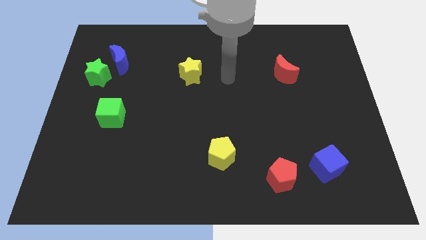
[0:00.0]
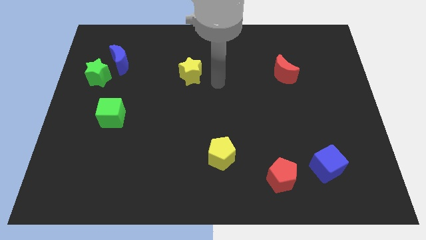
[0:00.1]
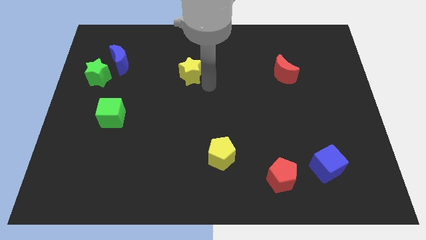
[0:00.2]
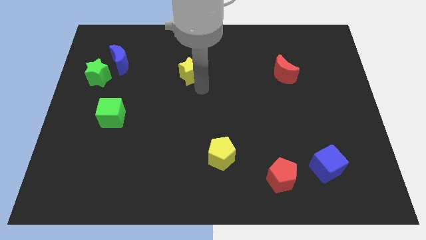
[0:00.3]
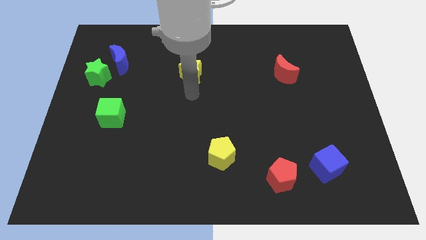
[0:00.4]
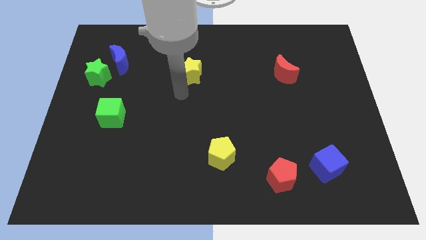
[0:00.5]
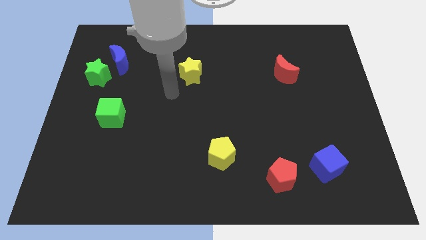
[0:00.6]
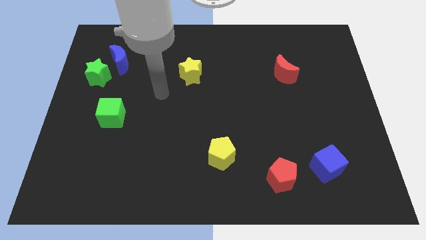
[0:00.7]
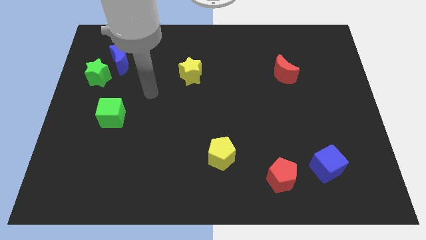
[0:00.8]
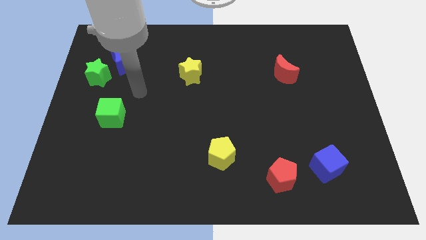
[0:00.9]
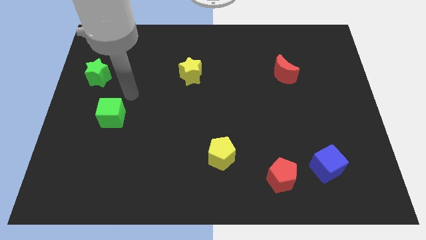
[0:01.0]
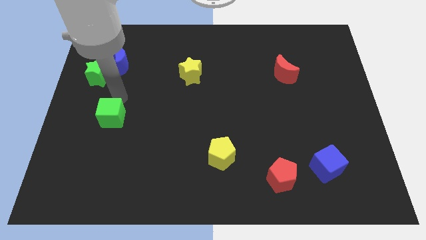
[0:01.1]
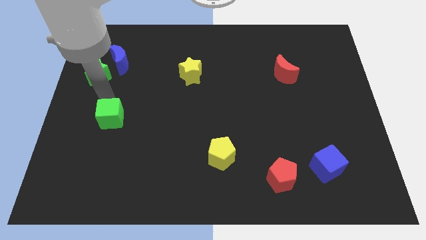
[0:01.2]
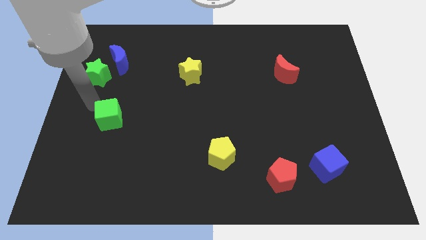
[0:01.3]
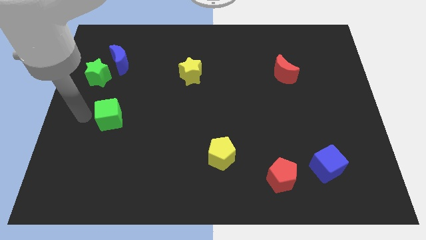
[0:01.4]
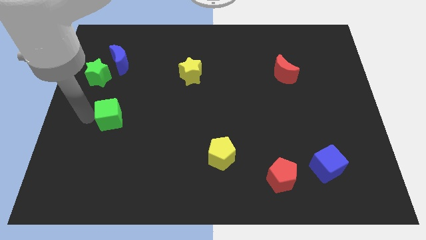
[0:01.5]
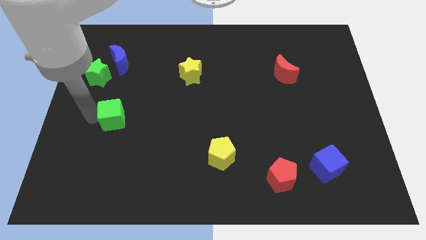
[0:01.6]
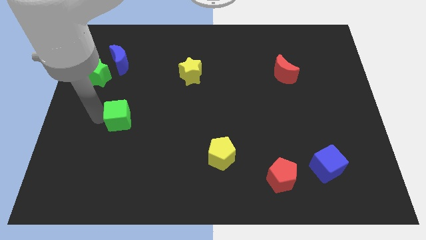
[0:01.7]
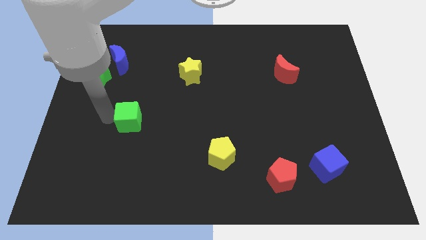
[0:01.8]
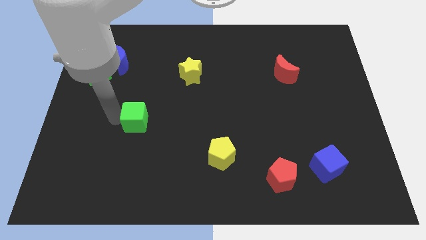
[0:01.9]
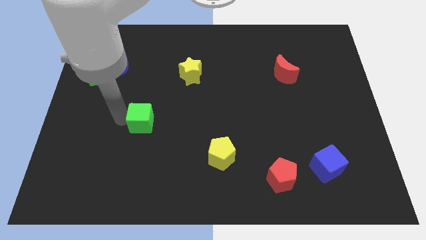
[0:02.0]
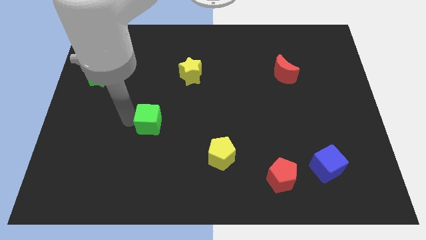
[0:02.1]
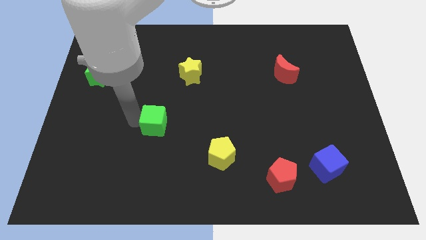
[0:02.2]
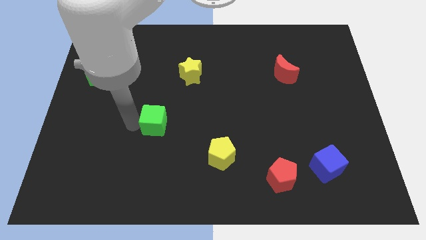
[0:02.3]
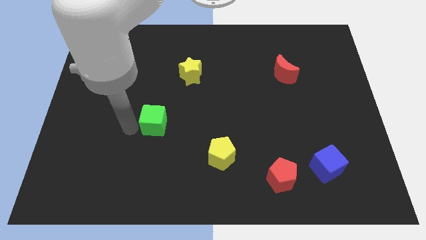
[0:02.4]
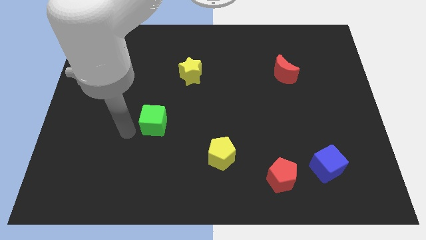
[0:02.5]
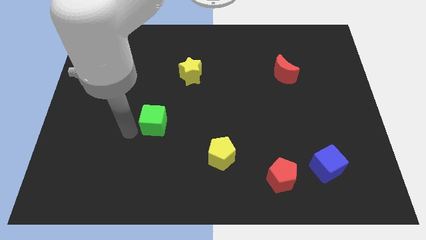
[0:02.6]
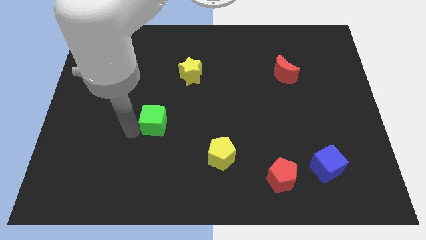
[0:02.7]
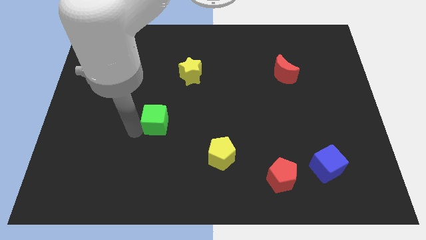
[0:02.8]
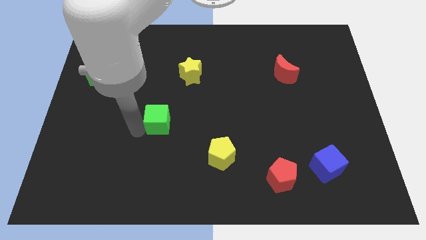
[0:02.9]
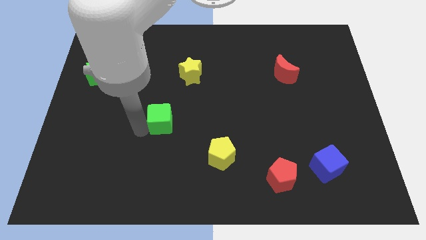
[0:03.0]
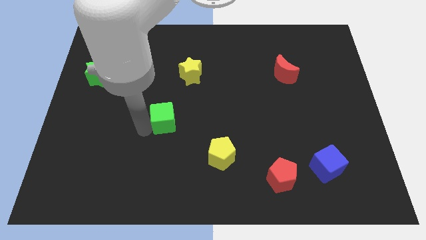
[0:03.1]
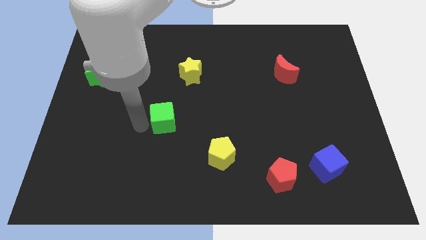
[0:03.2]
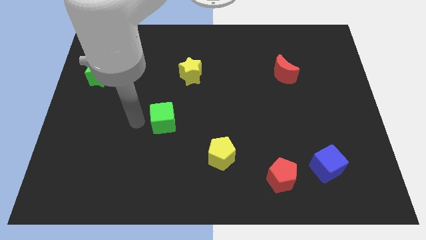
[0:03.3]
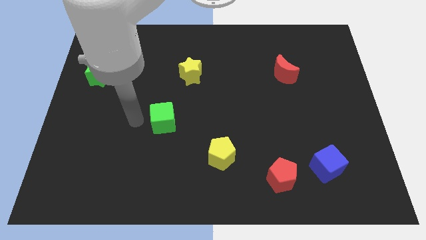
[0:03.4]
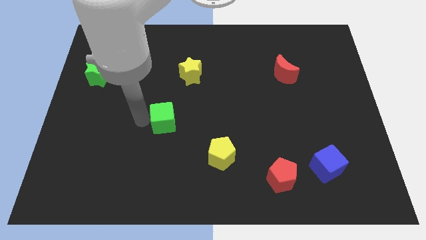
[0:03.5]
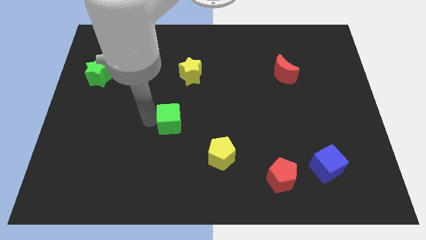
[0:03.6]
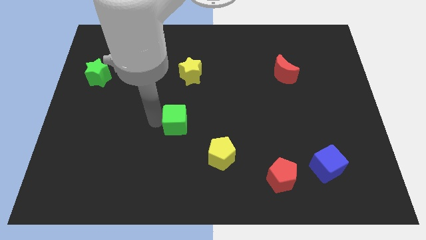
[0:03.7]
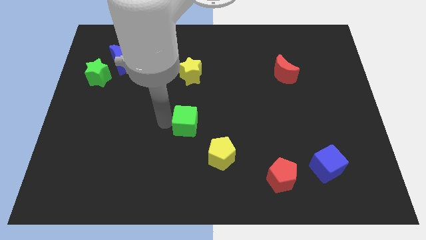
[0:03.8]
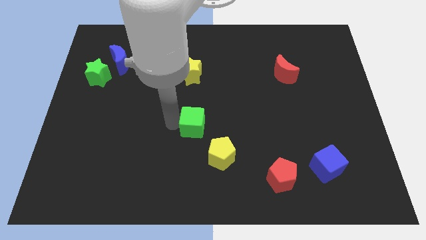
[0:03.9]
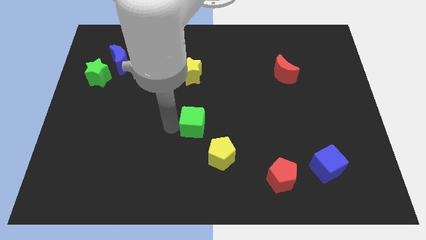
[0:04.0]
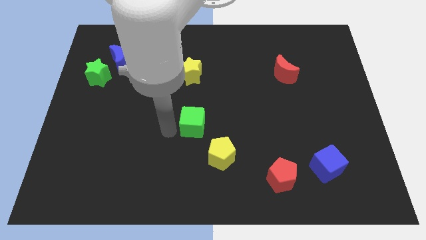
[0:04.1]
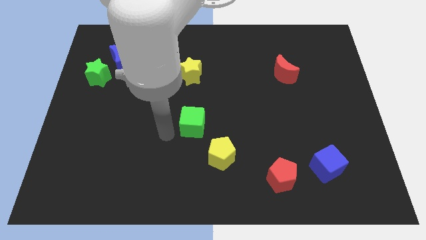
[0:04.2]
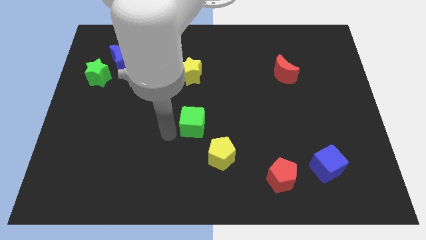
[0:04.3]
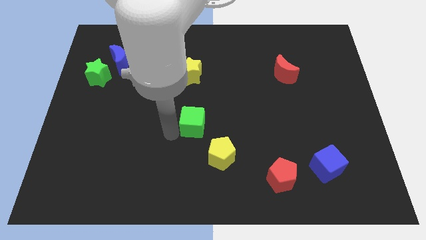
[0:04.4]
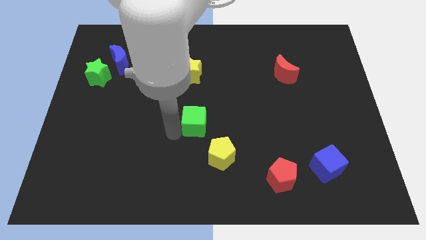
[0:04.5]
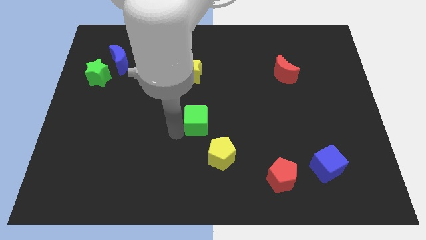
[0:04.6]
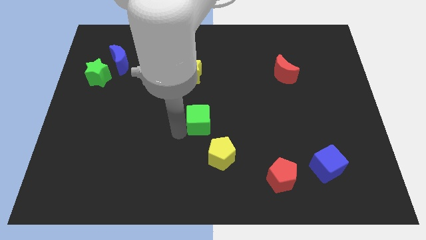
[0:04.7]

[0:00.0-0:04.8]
move the green cube right

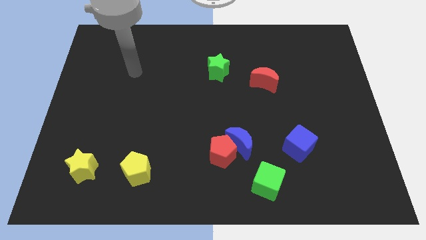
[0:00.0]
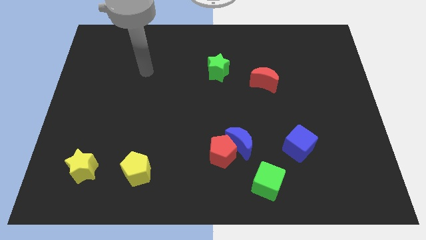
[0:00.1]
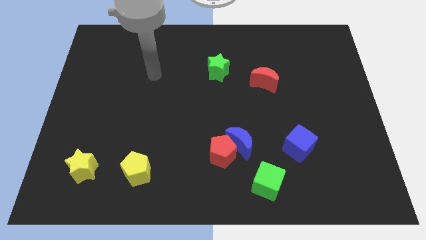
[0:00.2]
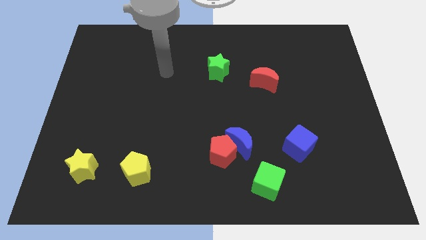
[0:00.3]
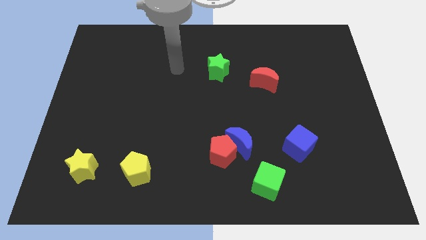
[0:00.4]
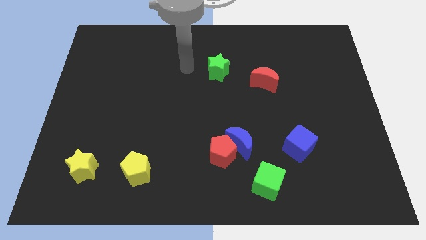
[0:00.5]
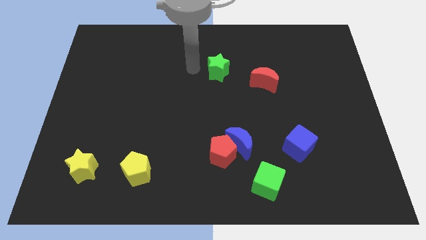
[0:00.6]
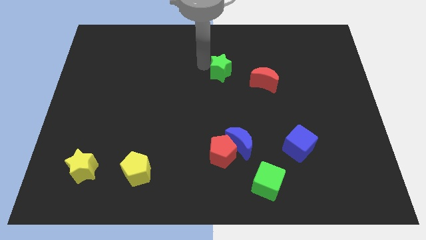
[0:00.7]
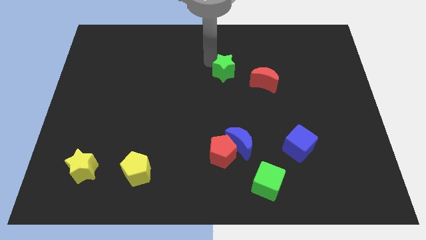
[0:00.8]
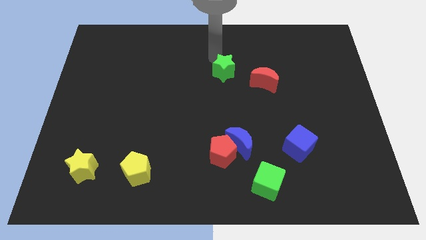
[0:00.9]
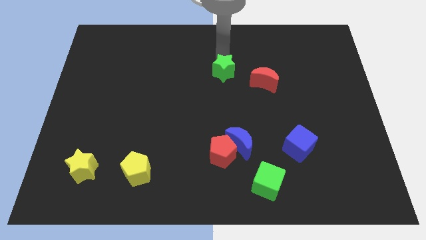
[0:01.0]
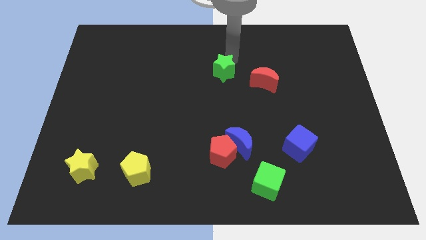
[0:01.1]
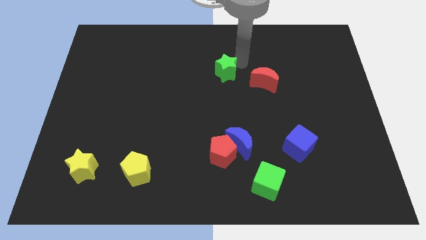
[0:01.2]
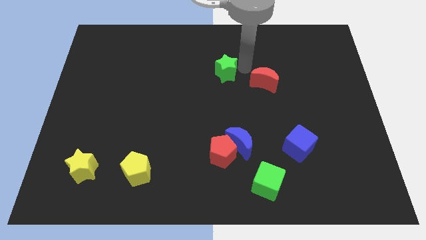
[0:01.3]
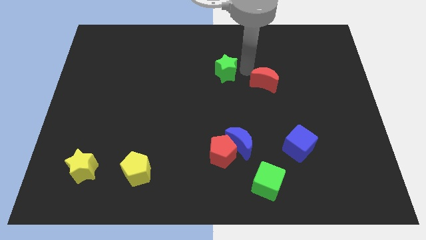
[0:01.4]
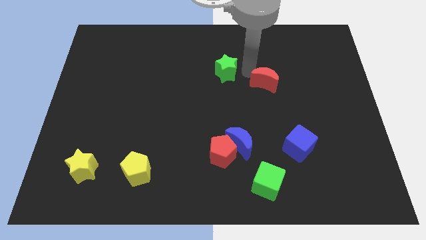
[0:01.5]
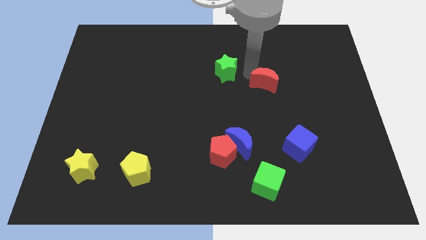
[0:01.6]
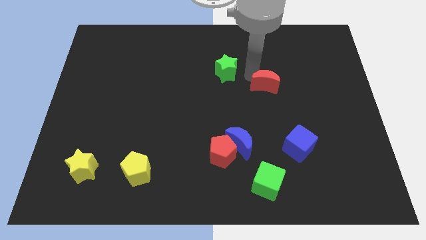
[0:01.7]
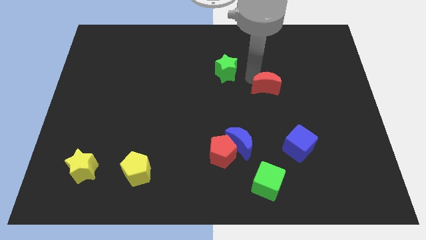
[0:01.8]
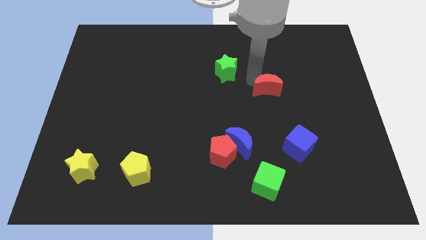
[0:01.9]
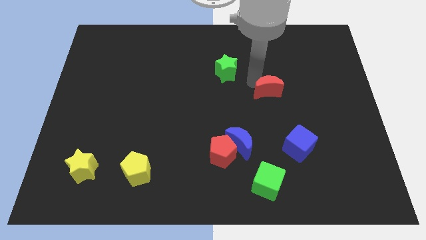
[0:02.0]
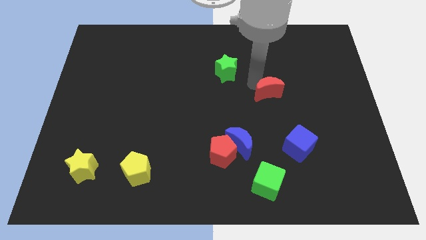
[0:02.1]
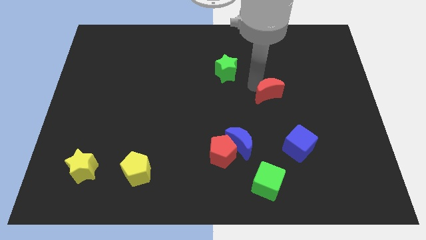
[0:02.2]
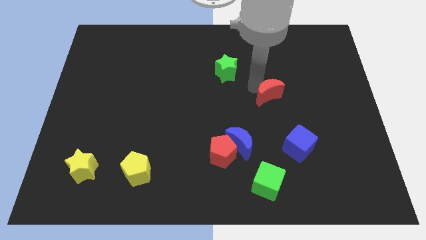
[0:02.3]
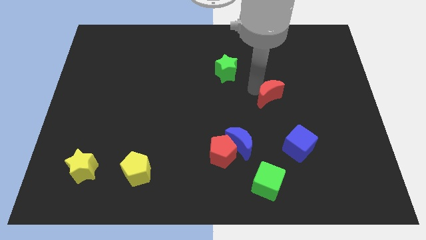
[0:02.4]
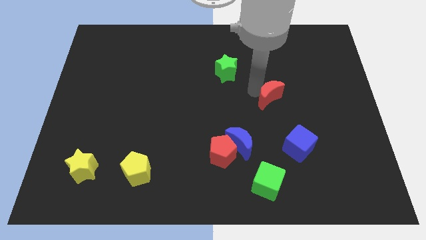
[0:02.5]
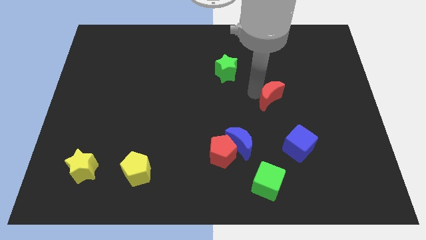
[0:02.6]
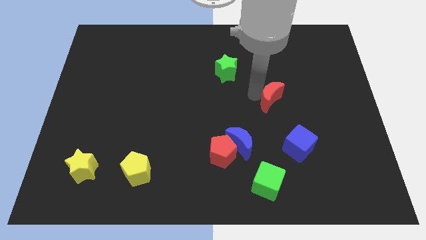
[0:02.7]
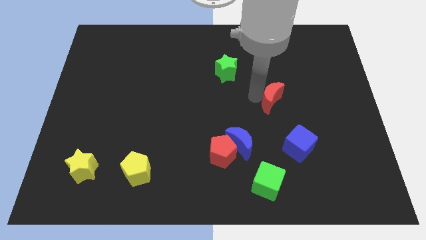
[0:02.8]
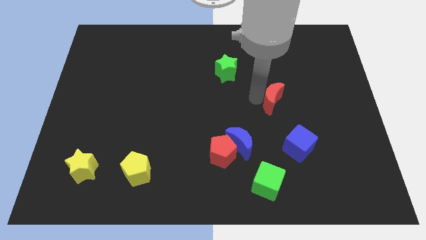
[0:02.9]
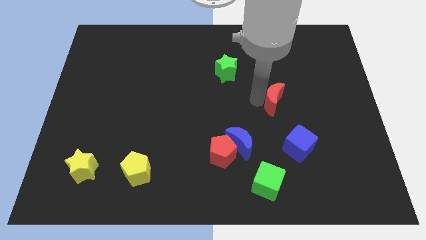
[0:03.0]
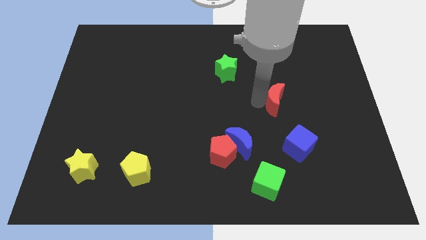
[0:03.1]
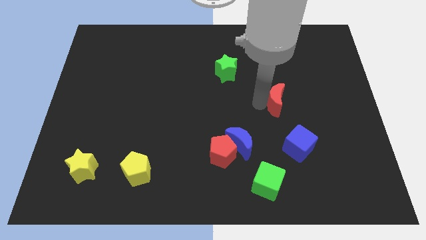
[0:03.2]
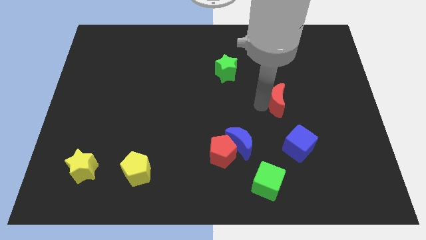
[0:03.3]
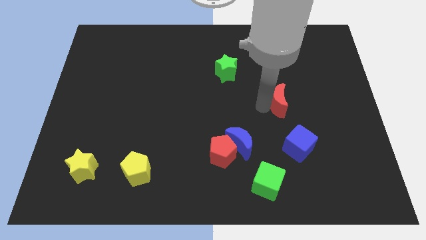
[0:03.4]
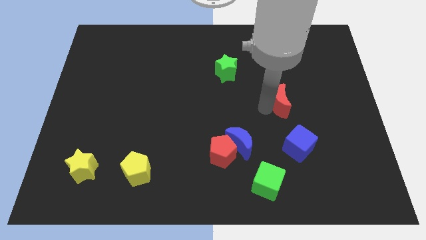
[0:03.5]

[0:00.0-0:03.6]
move the red moon a little diagonally down and right
